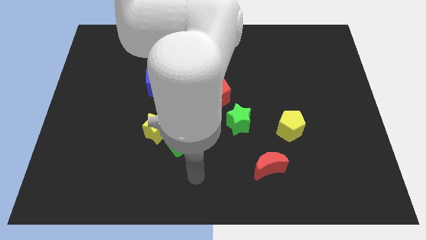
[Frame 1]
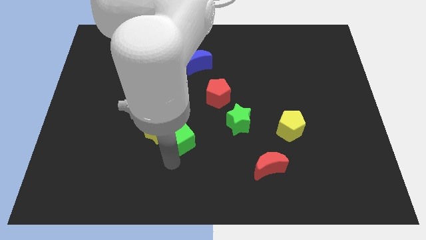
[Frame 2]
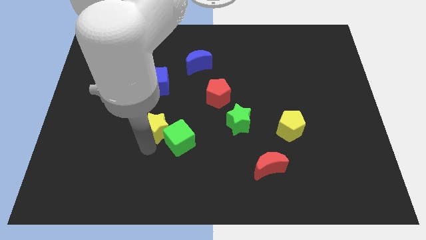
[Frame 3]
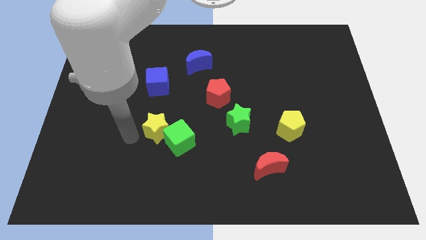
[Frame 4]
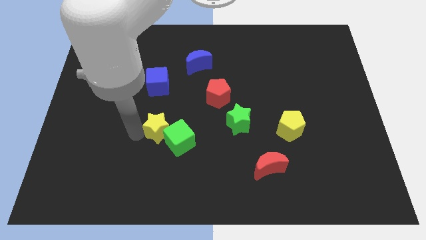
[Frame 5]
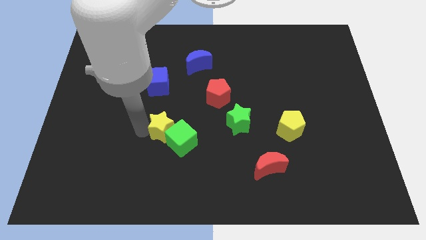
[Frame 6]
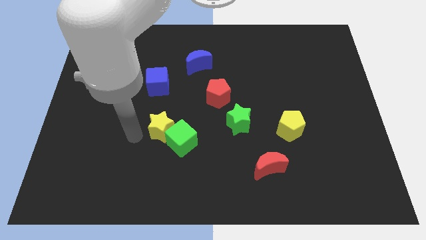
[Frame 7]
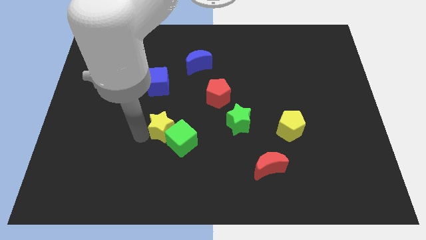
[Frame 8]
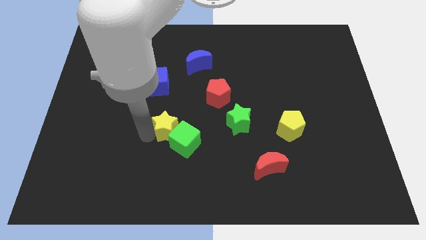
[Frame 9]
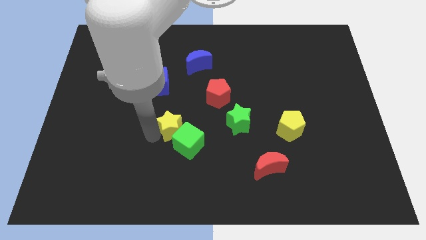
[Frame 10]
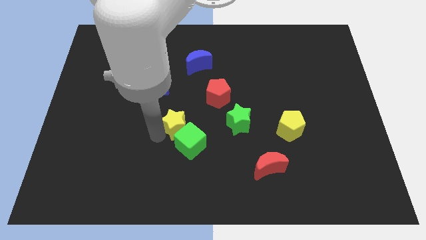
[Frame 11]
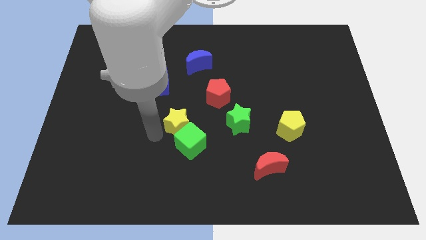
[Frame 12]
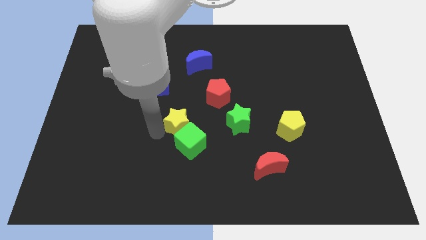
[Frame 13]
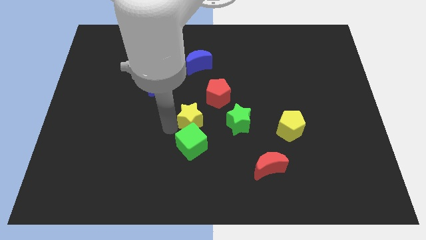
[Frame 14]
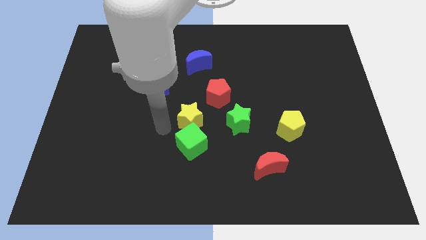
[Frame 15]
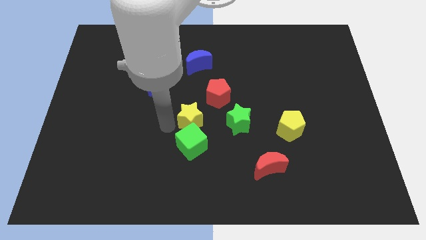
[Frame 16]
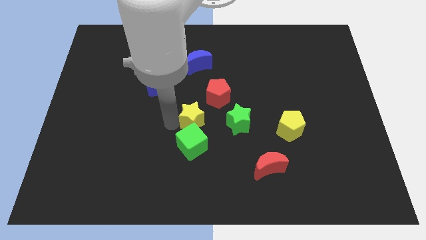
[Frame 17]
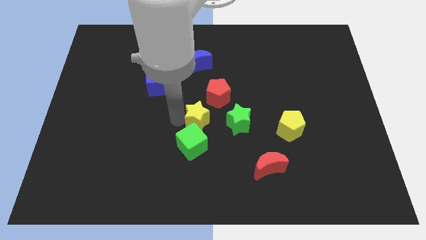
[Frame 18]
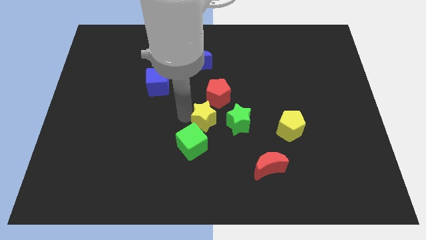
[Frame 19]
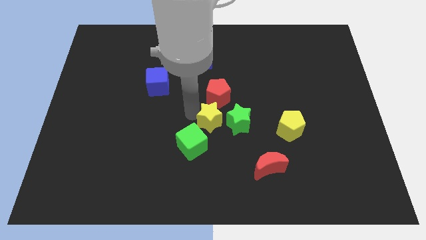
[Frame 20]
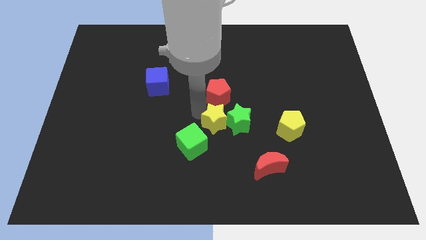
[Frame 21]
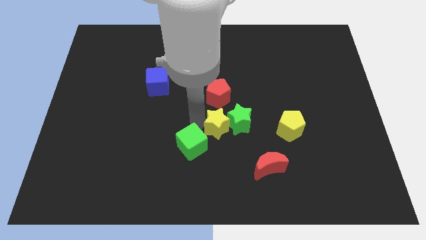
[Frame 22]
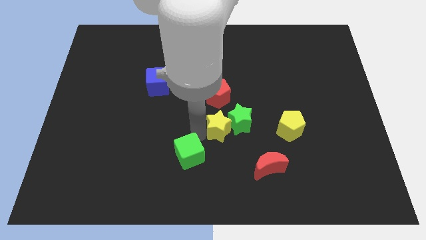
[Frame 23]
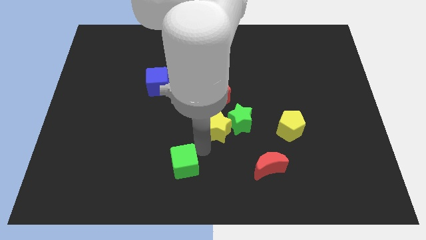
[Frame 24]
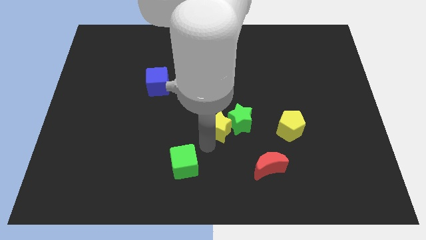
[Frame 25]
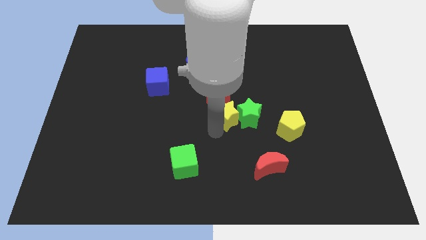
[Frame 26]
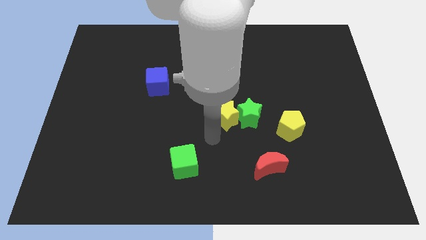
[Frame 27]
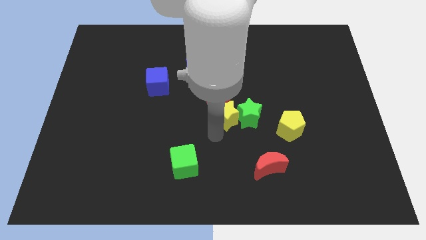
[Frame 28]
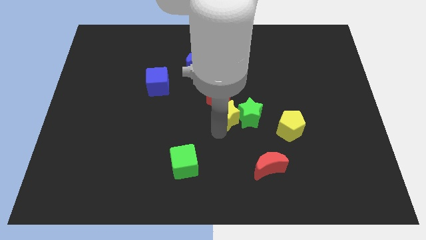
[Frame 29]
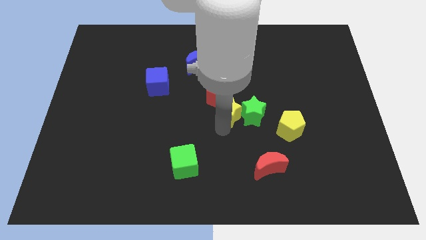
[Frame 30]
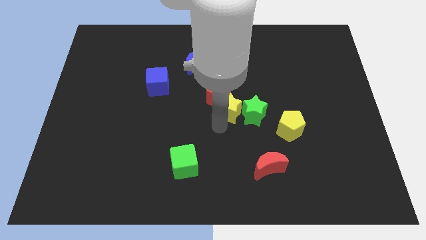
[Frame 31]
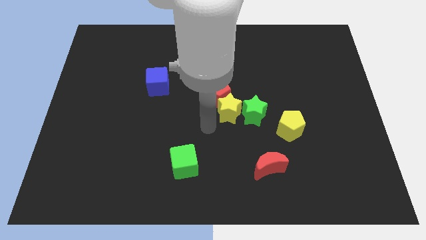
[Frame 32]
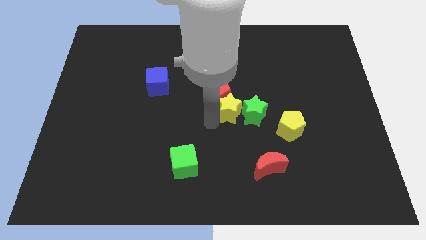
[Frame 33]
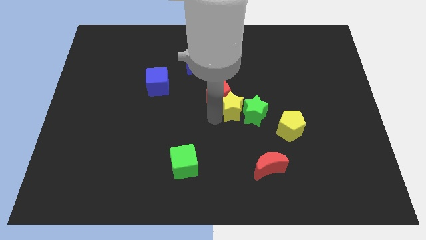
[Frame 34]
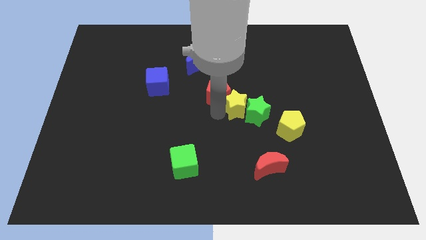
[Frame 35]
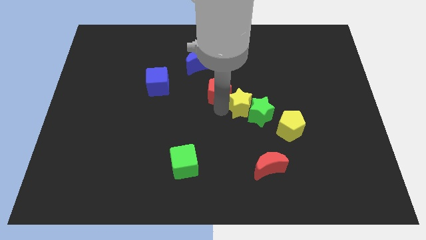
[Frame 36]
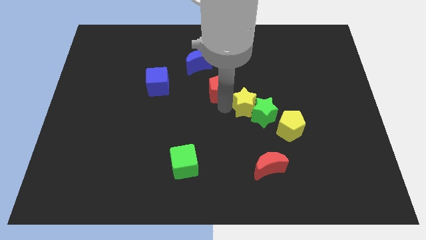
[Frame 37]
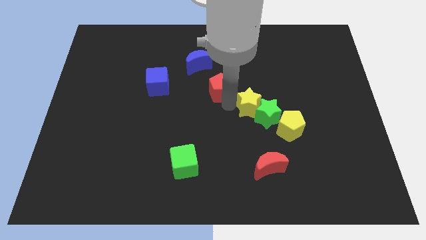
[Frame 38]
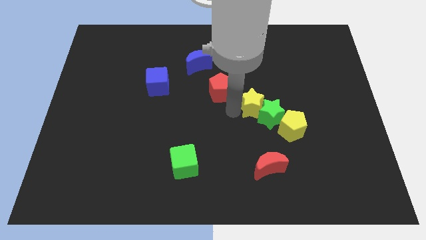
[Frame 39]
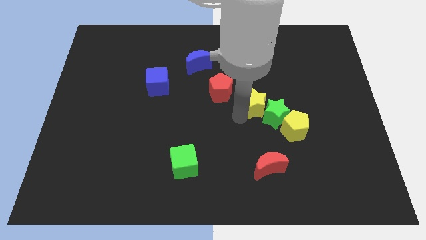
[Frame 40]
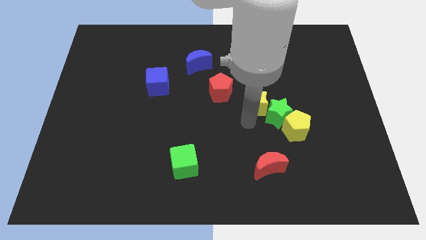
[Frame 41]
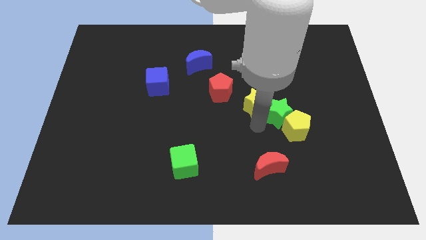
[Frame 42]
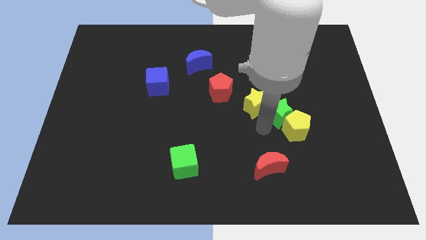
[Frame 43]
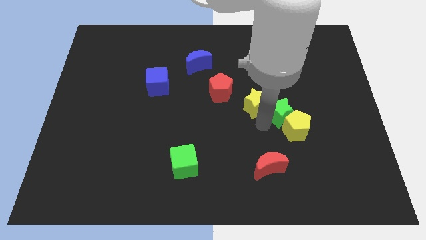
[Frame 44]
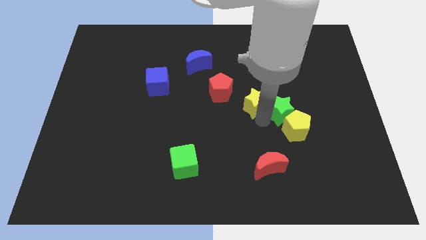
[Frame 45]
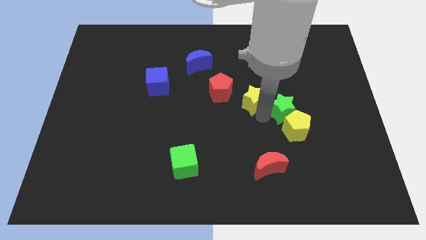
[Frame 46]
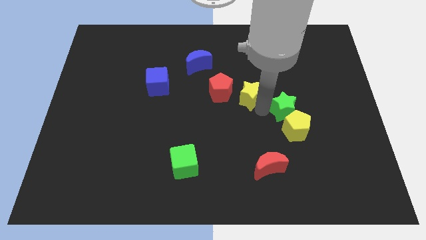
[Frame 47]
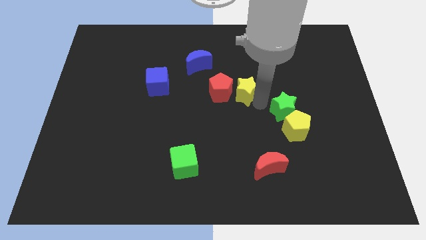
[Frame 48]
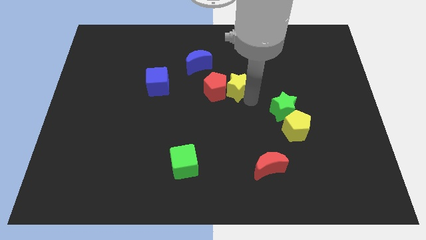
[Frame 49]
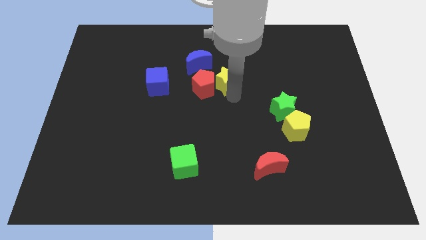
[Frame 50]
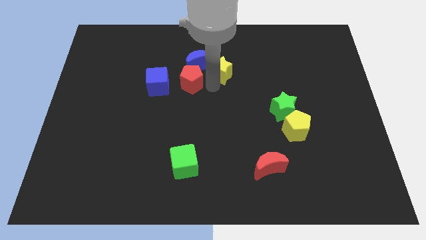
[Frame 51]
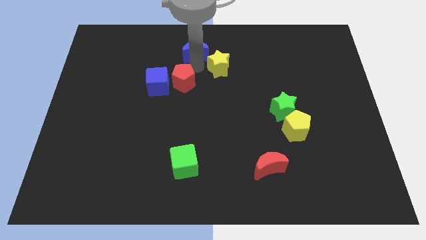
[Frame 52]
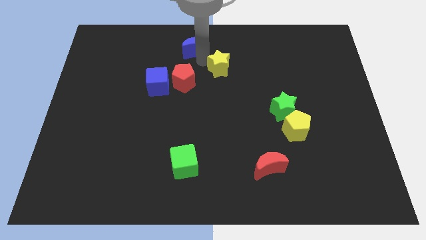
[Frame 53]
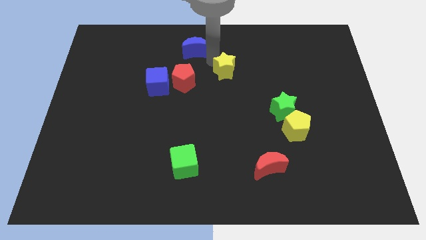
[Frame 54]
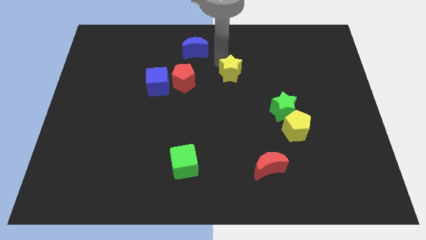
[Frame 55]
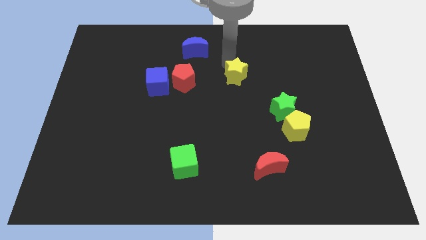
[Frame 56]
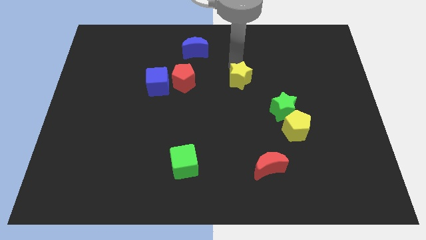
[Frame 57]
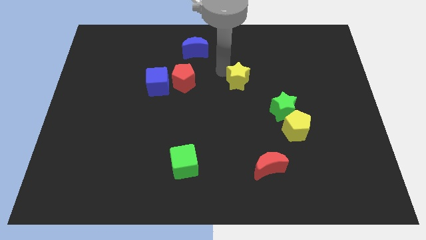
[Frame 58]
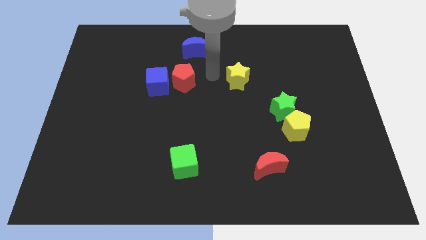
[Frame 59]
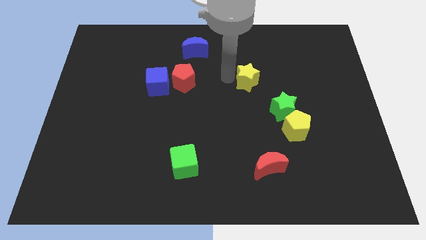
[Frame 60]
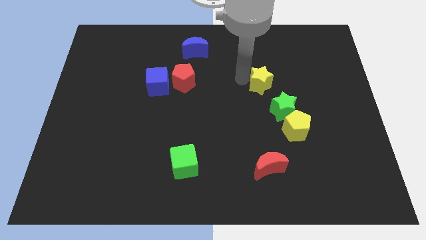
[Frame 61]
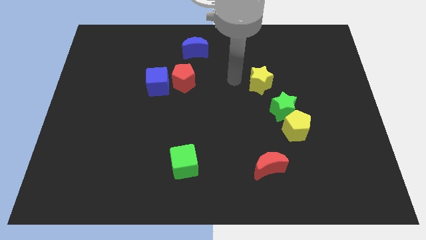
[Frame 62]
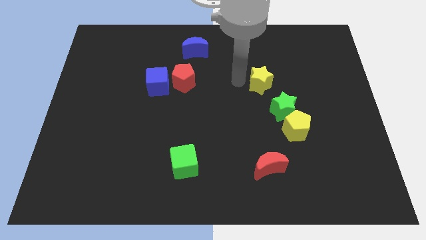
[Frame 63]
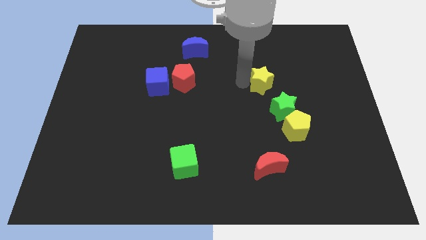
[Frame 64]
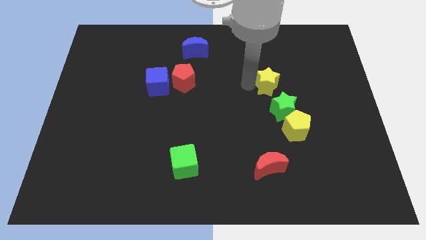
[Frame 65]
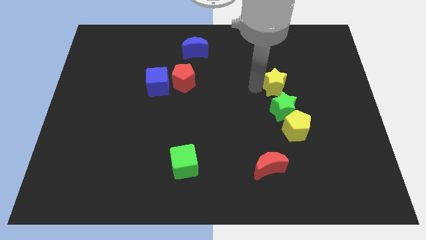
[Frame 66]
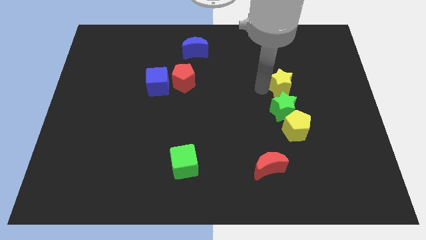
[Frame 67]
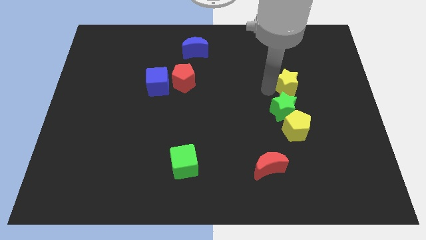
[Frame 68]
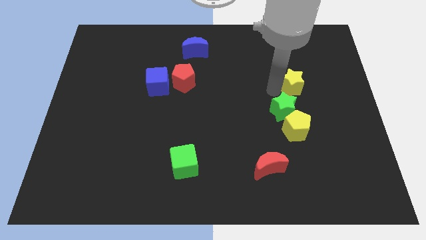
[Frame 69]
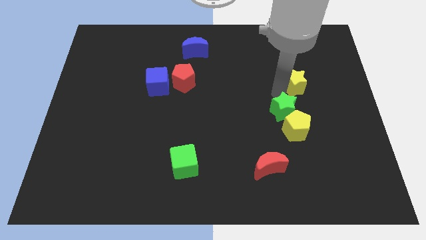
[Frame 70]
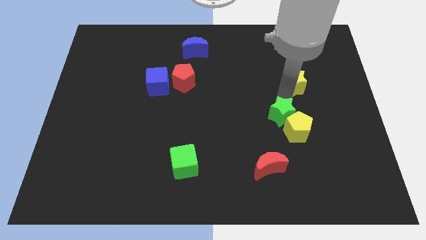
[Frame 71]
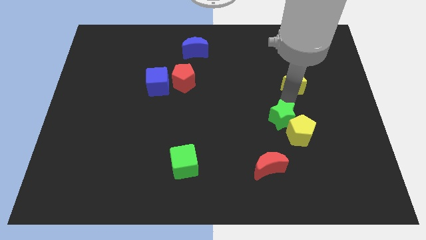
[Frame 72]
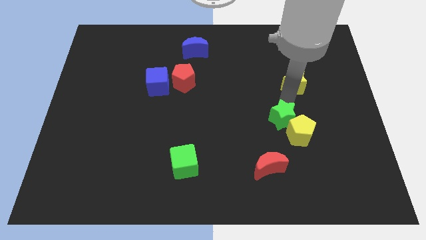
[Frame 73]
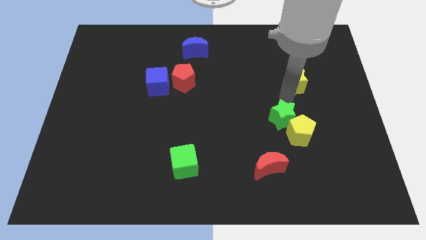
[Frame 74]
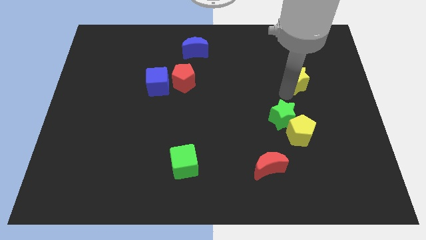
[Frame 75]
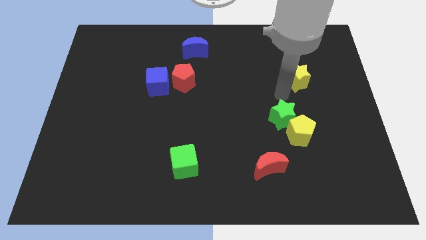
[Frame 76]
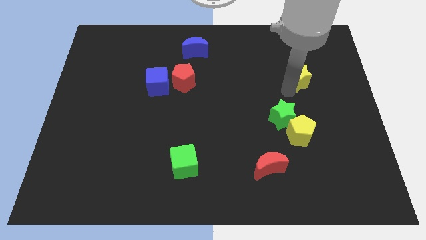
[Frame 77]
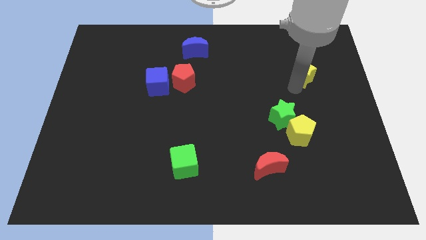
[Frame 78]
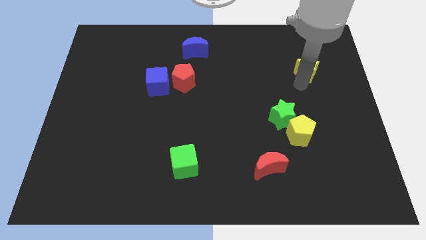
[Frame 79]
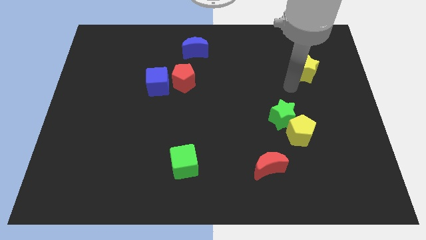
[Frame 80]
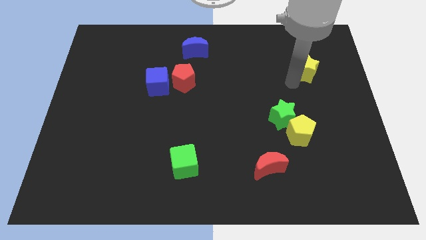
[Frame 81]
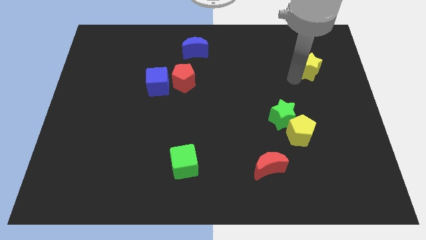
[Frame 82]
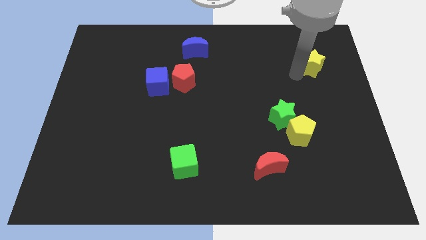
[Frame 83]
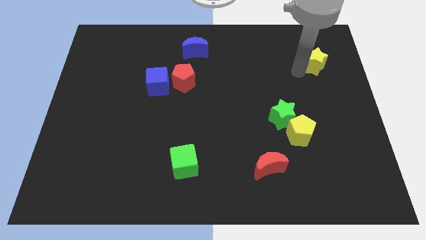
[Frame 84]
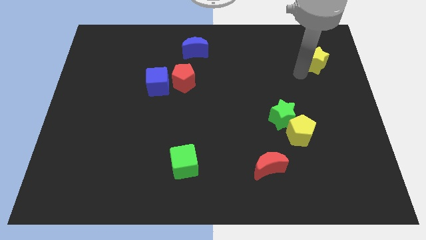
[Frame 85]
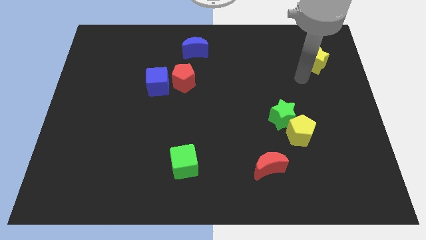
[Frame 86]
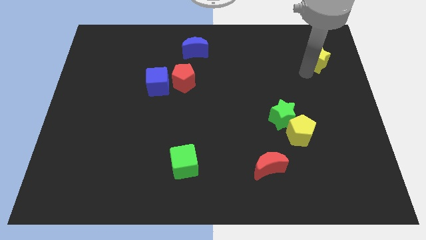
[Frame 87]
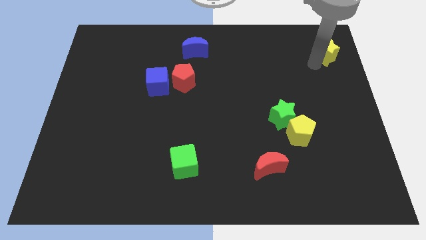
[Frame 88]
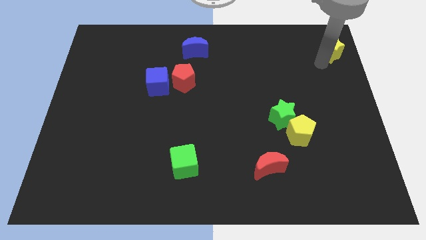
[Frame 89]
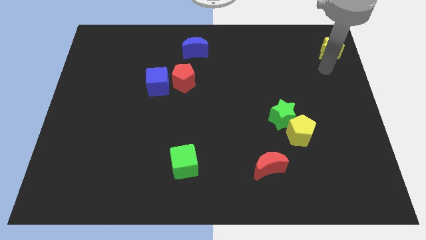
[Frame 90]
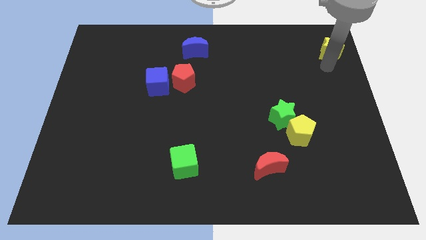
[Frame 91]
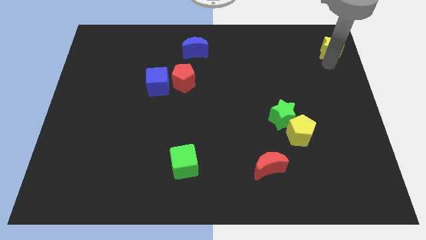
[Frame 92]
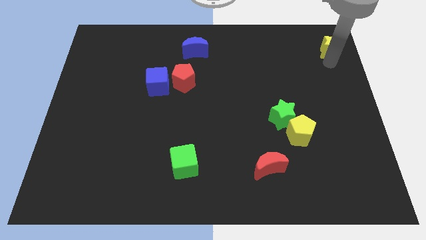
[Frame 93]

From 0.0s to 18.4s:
push the yellow star to the top right corner
